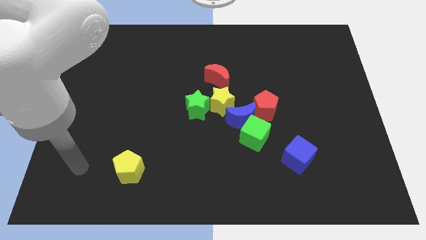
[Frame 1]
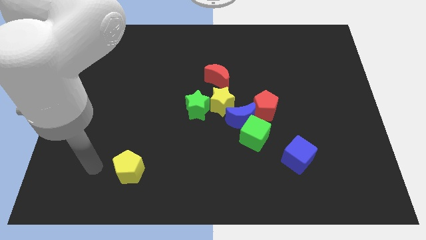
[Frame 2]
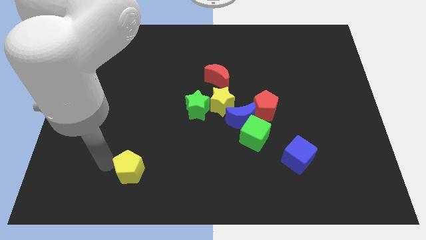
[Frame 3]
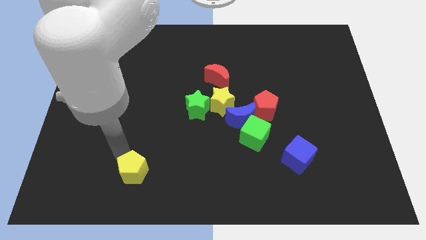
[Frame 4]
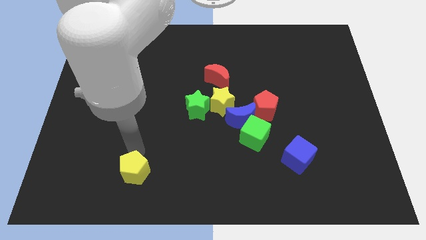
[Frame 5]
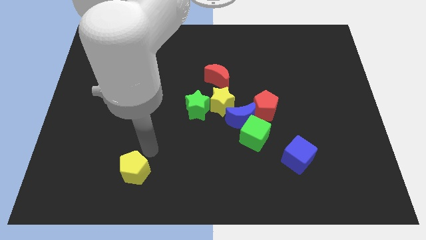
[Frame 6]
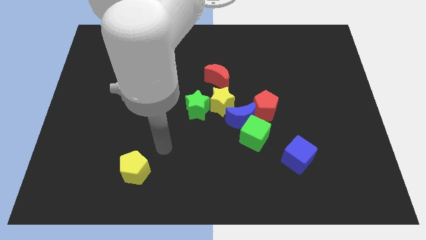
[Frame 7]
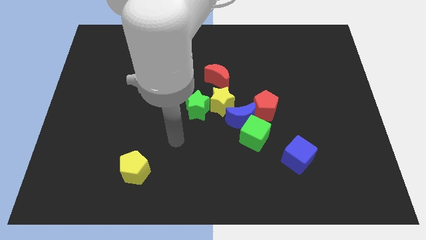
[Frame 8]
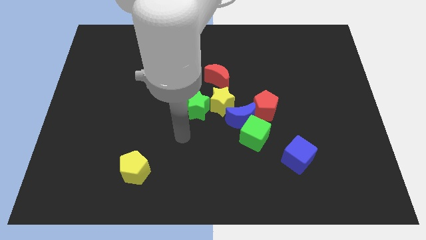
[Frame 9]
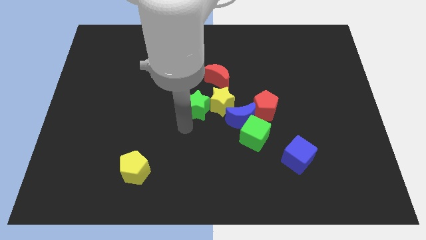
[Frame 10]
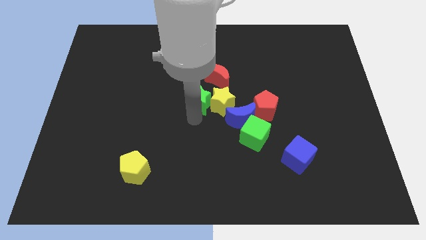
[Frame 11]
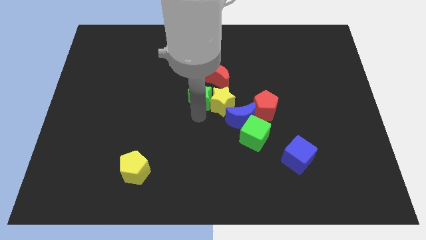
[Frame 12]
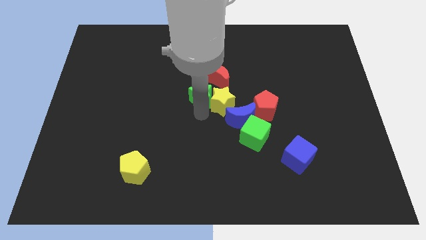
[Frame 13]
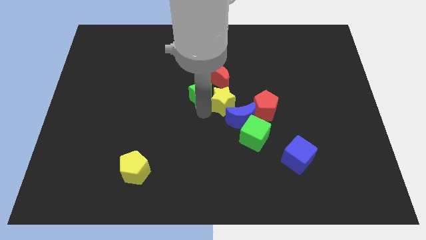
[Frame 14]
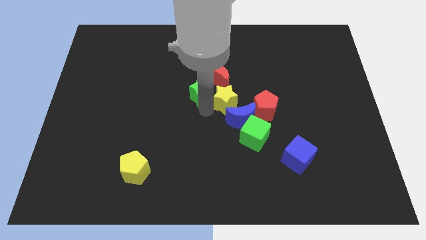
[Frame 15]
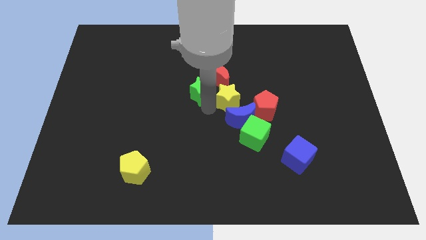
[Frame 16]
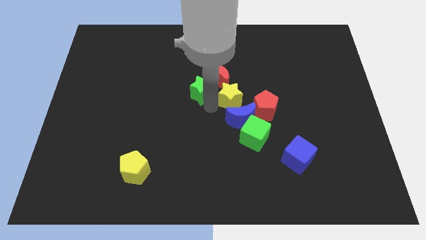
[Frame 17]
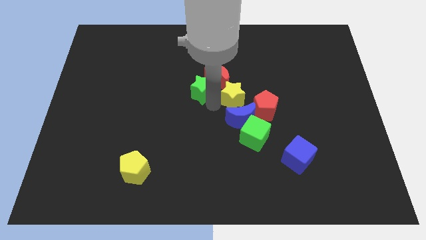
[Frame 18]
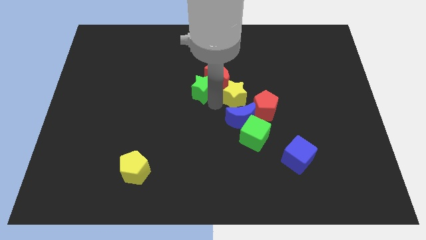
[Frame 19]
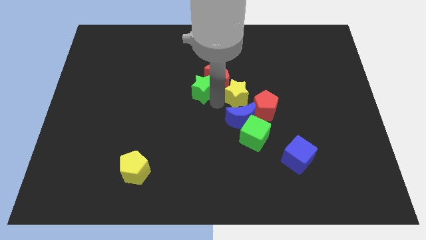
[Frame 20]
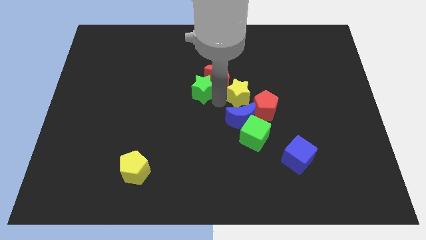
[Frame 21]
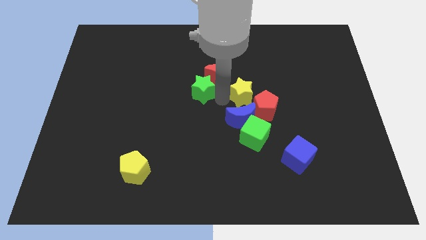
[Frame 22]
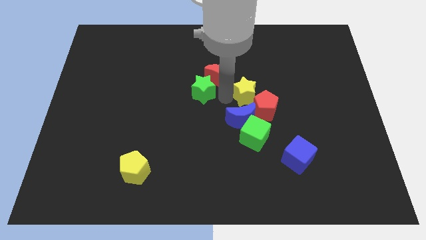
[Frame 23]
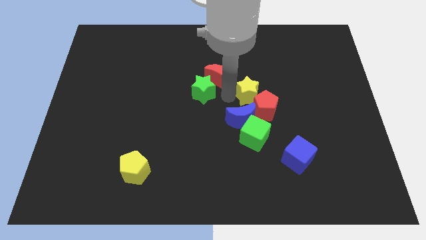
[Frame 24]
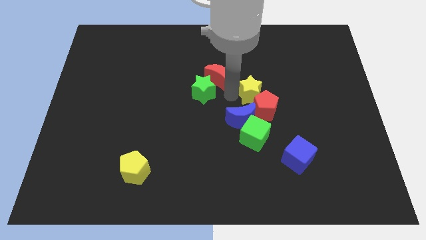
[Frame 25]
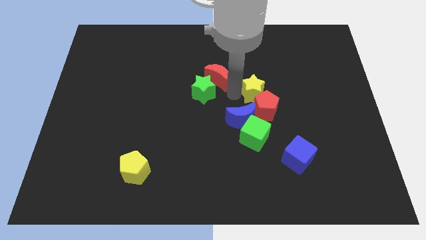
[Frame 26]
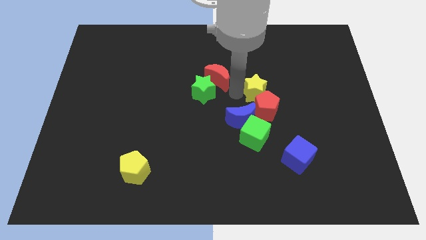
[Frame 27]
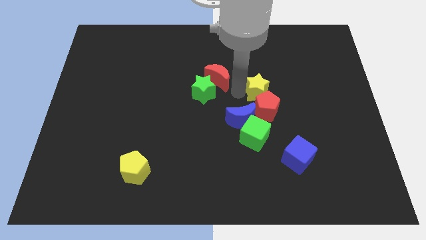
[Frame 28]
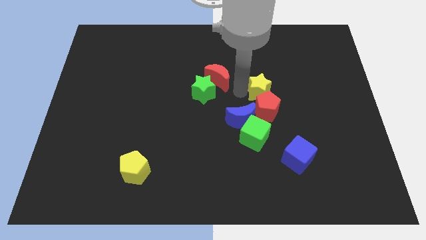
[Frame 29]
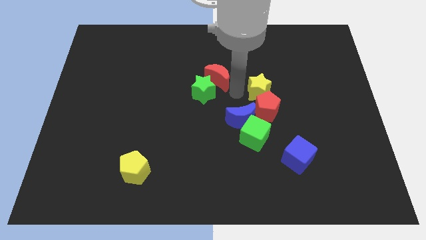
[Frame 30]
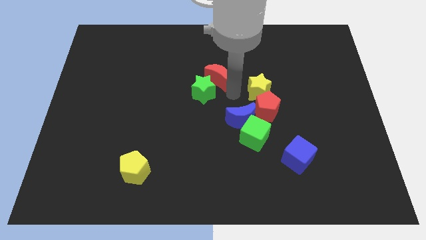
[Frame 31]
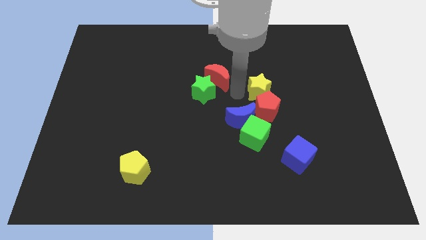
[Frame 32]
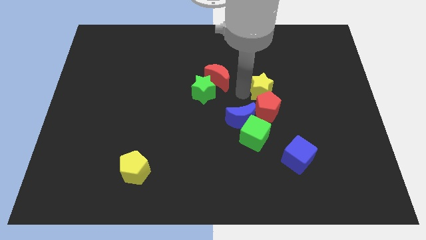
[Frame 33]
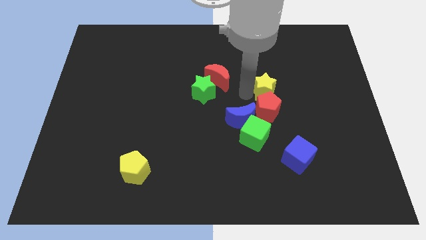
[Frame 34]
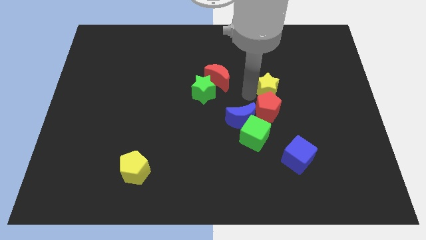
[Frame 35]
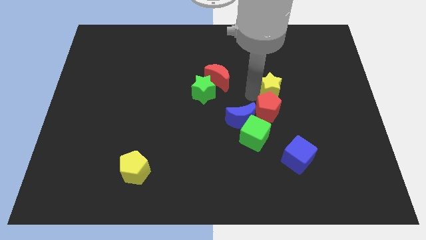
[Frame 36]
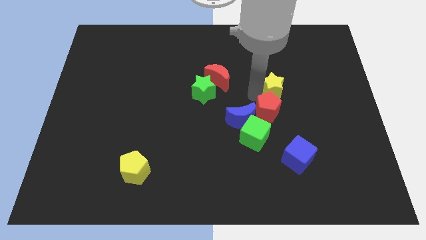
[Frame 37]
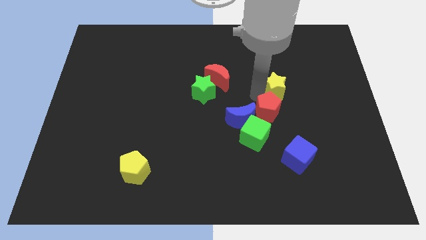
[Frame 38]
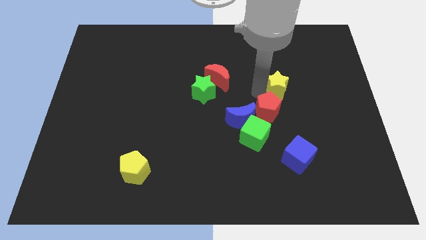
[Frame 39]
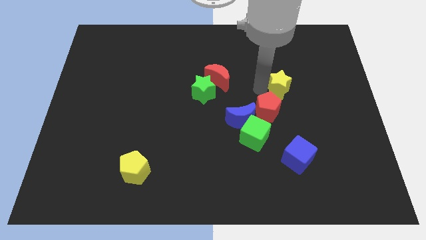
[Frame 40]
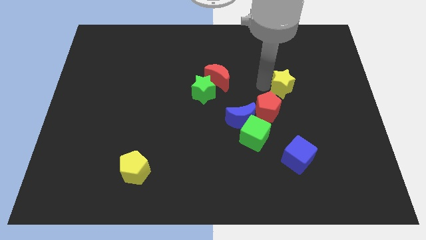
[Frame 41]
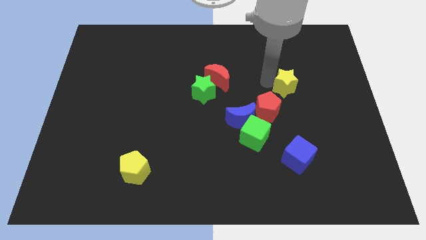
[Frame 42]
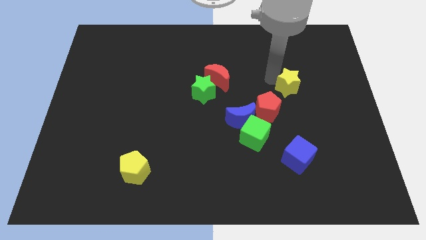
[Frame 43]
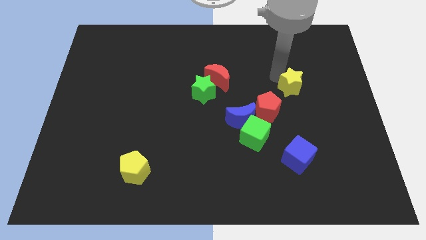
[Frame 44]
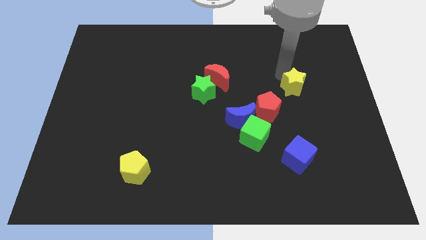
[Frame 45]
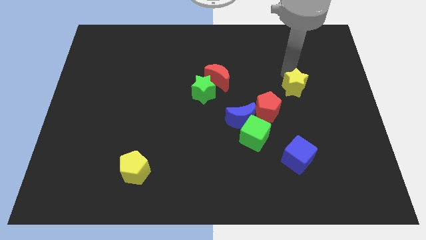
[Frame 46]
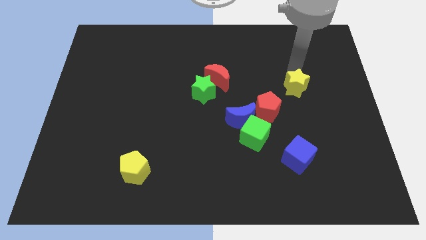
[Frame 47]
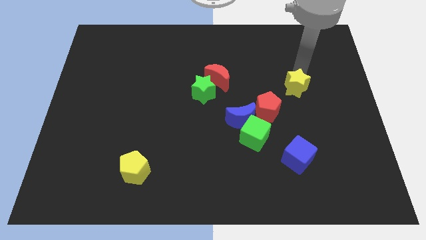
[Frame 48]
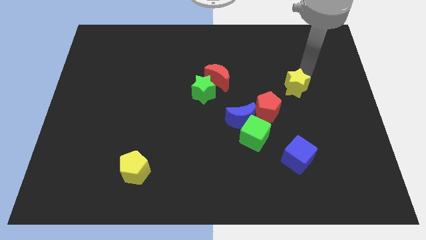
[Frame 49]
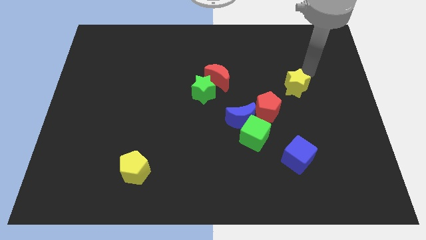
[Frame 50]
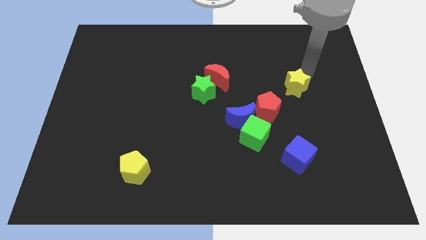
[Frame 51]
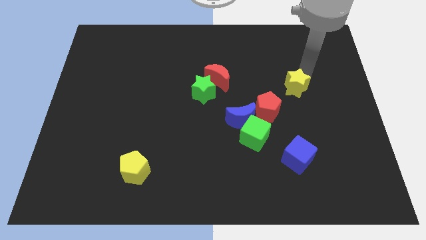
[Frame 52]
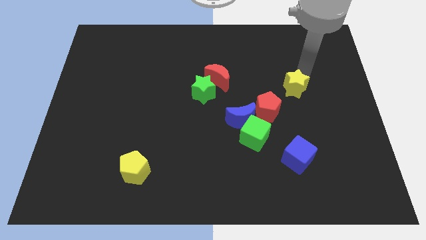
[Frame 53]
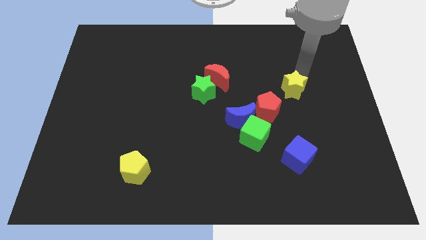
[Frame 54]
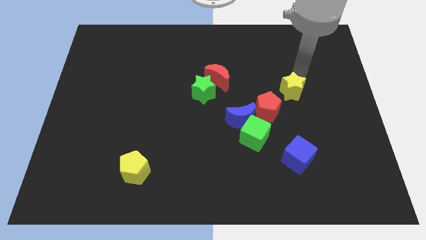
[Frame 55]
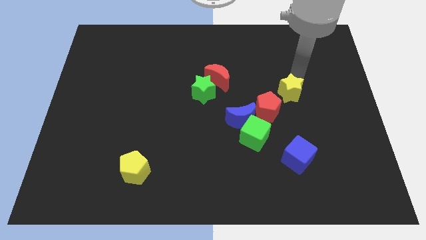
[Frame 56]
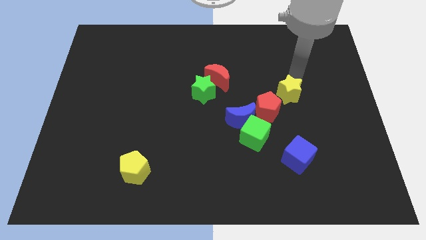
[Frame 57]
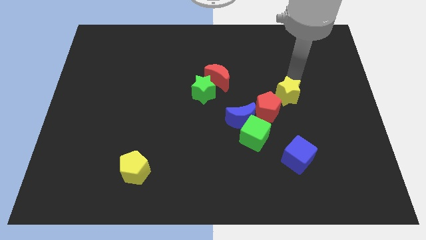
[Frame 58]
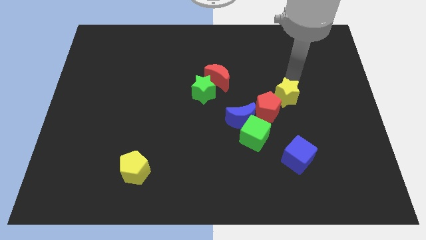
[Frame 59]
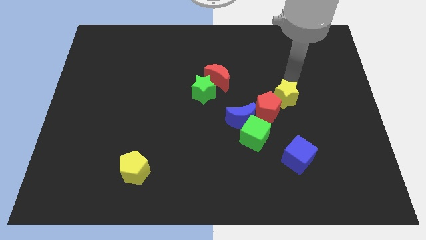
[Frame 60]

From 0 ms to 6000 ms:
put the yellow star above the blue cube

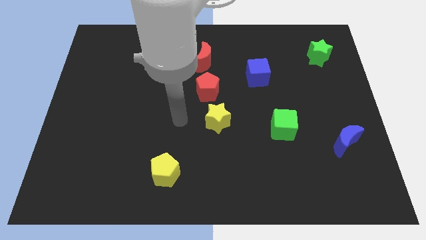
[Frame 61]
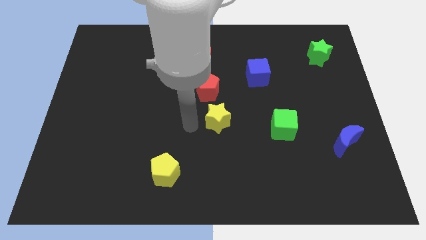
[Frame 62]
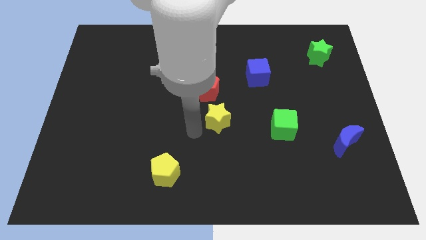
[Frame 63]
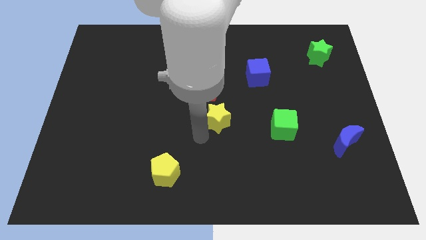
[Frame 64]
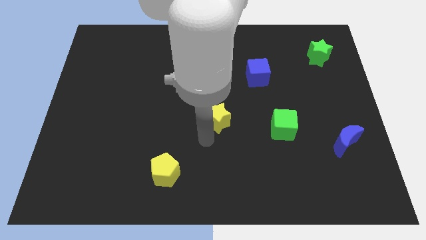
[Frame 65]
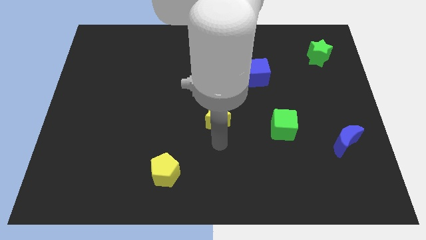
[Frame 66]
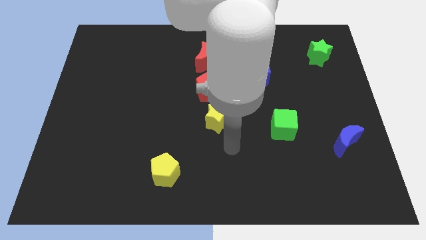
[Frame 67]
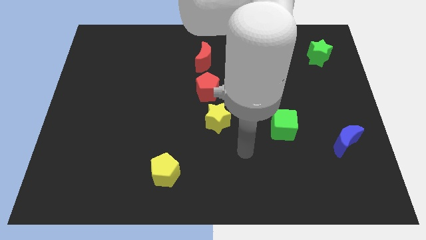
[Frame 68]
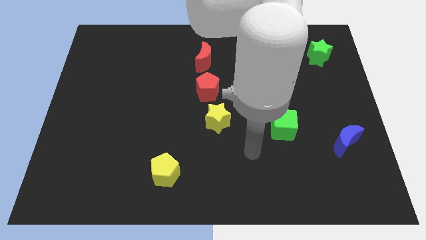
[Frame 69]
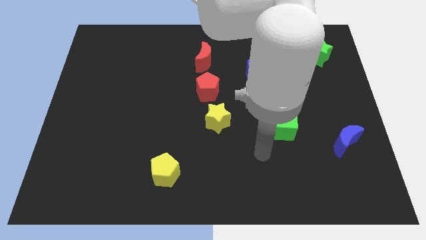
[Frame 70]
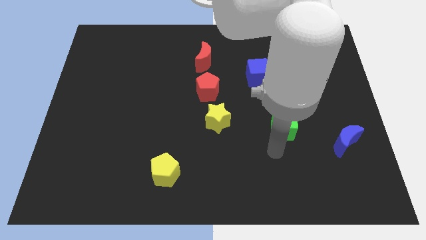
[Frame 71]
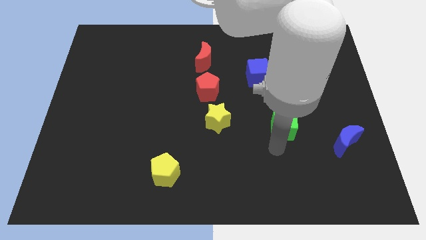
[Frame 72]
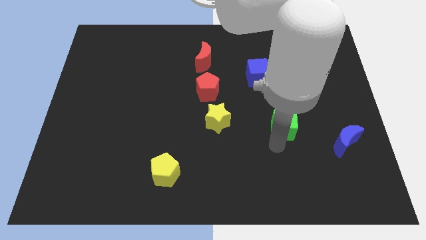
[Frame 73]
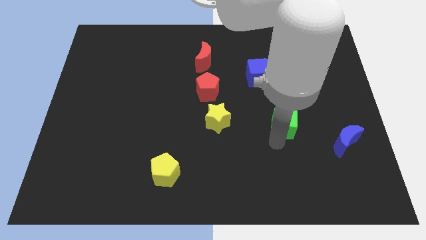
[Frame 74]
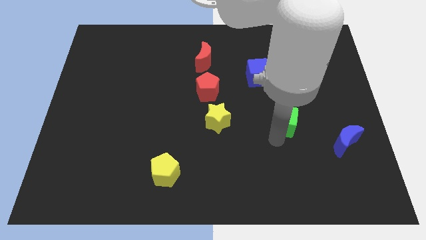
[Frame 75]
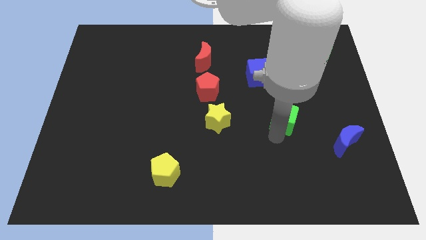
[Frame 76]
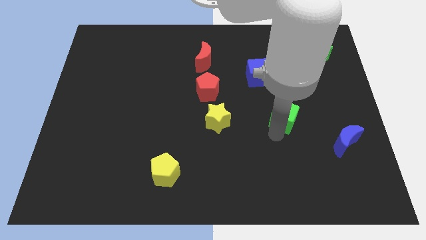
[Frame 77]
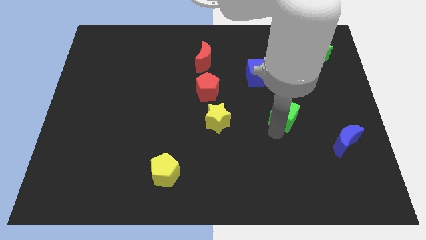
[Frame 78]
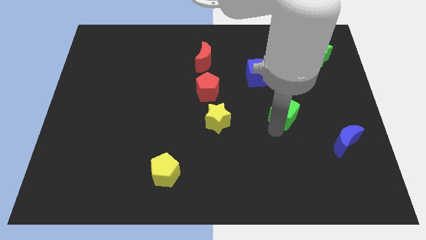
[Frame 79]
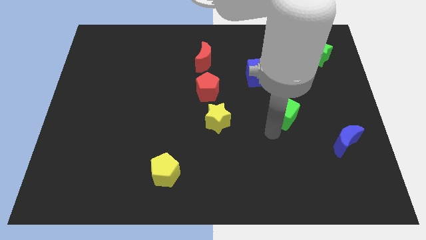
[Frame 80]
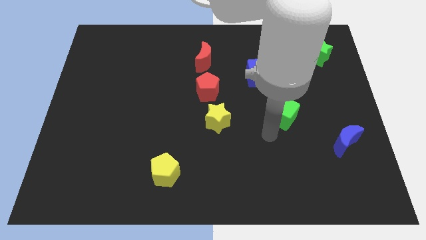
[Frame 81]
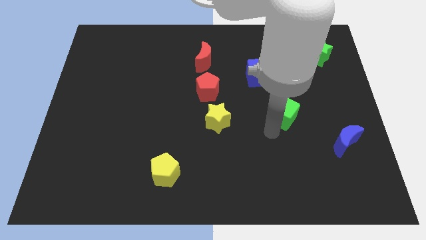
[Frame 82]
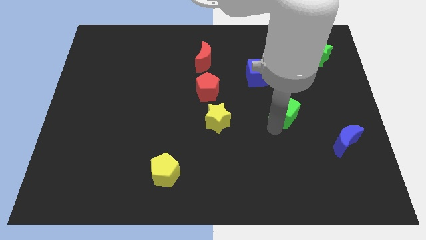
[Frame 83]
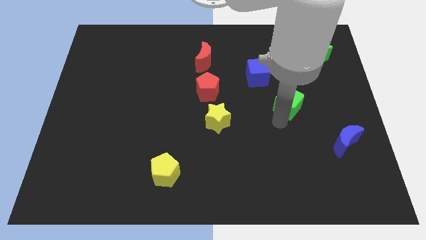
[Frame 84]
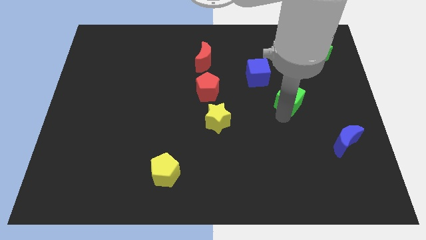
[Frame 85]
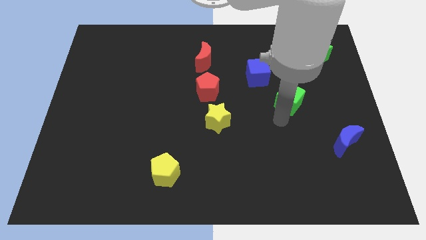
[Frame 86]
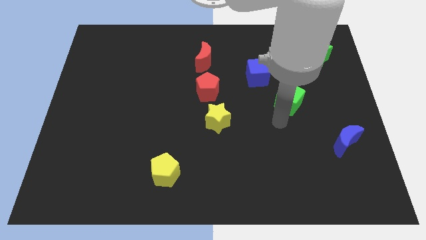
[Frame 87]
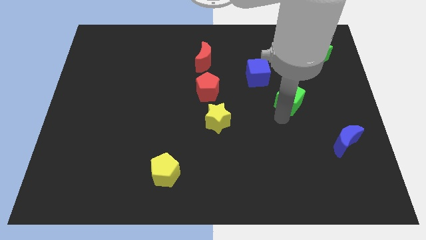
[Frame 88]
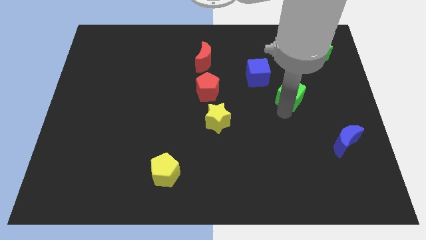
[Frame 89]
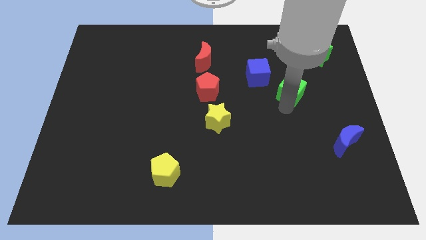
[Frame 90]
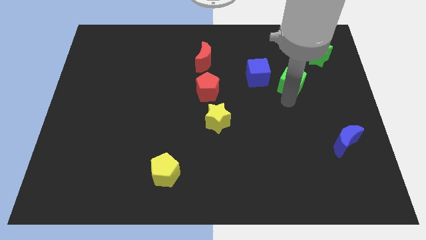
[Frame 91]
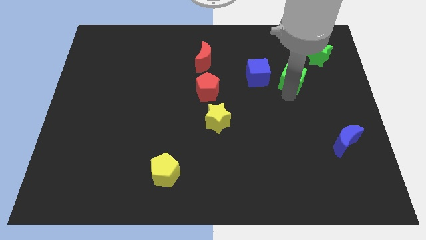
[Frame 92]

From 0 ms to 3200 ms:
put the green cube diagonally down and to the left of the green star
